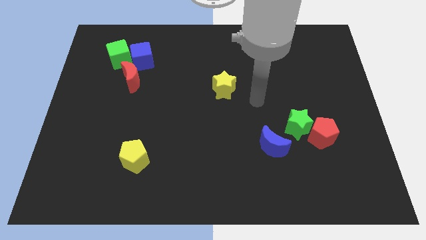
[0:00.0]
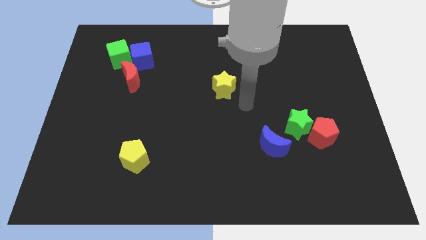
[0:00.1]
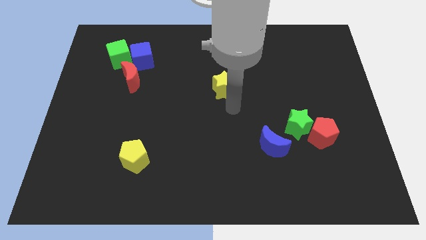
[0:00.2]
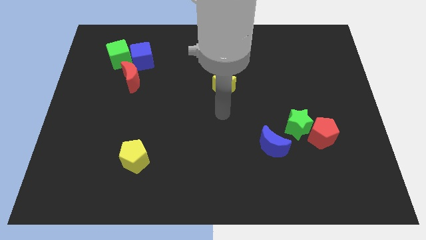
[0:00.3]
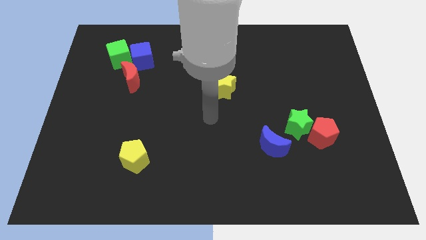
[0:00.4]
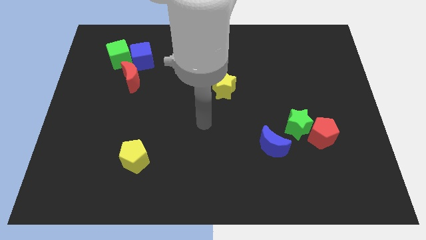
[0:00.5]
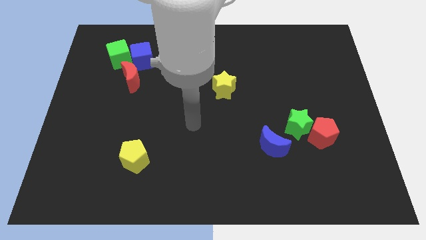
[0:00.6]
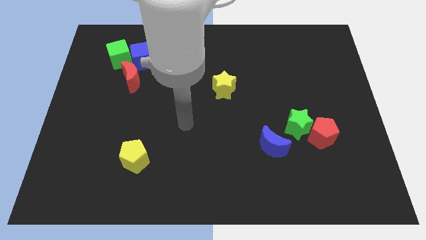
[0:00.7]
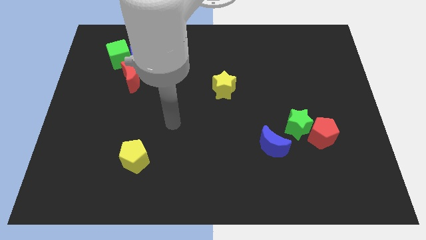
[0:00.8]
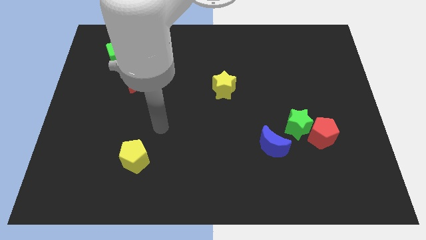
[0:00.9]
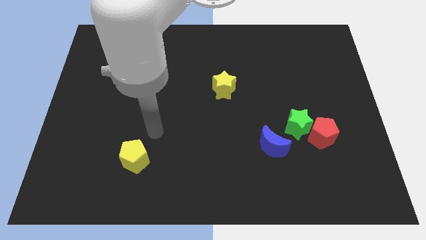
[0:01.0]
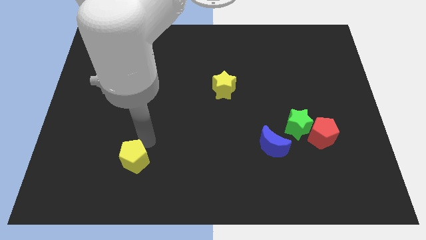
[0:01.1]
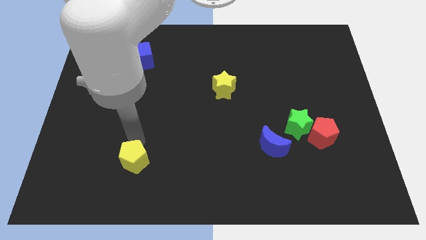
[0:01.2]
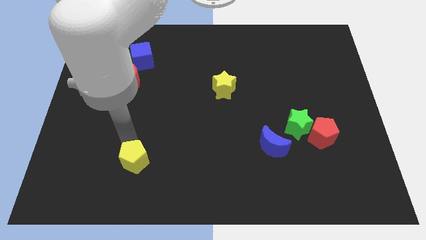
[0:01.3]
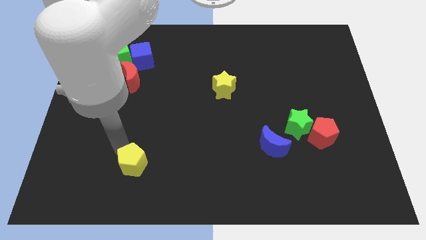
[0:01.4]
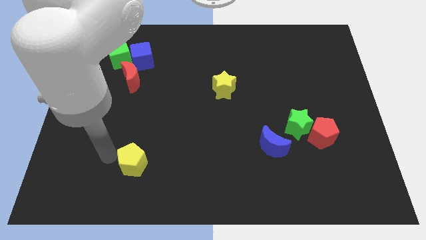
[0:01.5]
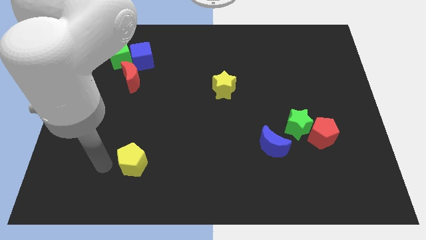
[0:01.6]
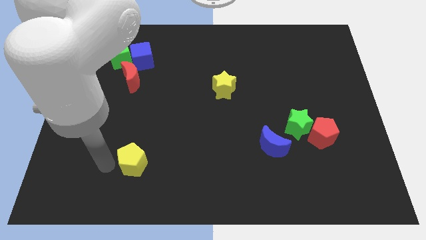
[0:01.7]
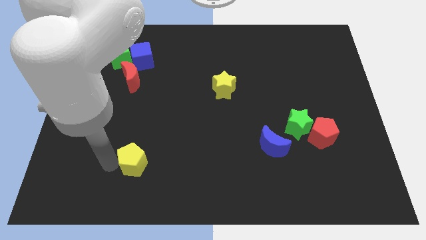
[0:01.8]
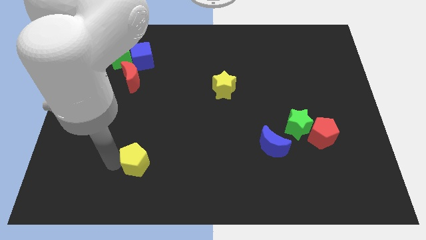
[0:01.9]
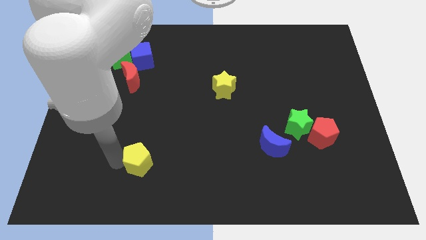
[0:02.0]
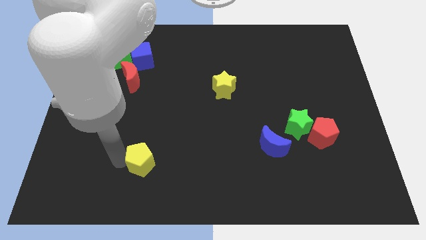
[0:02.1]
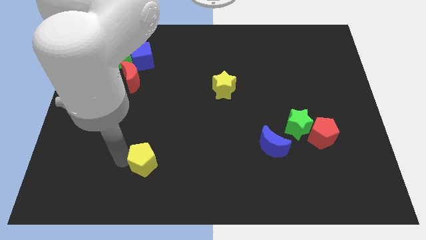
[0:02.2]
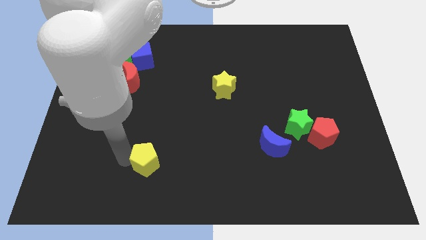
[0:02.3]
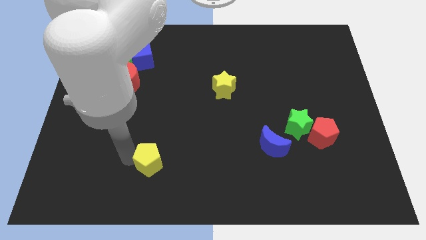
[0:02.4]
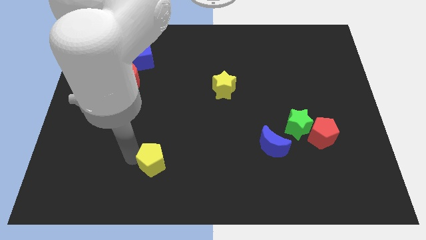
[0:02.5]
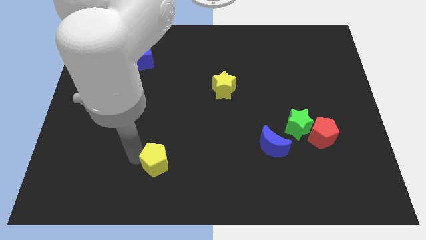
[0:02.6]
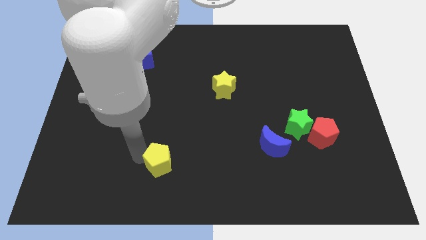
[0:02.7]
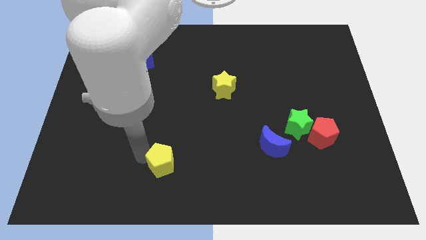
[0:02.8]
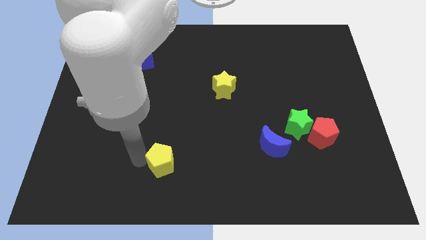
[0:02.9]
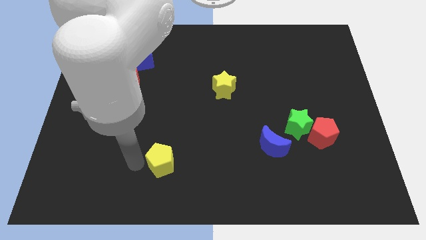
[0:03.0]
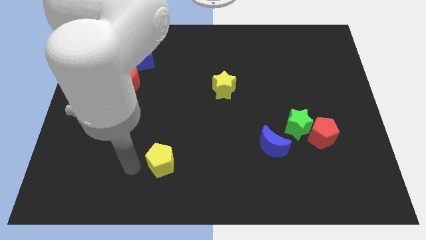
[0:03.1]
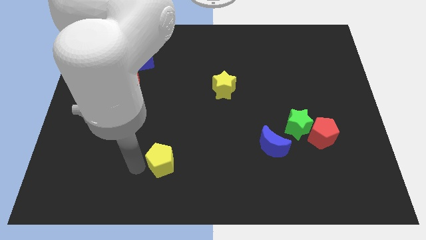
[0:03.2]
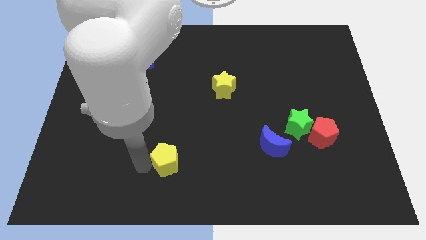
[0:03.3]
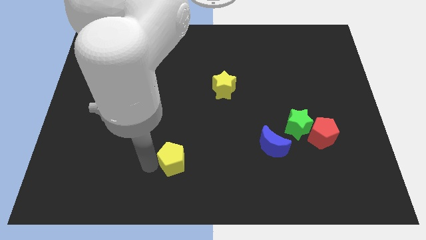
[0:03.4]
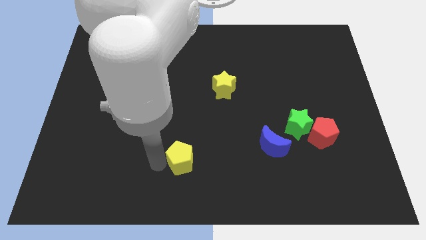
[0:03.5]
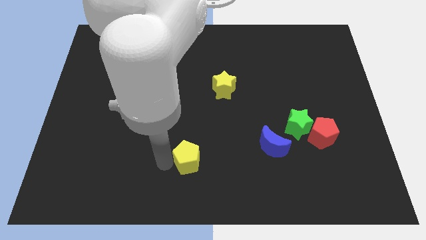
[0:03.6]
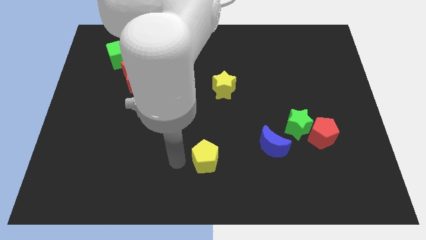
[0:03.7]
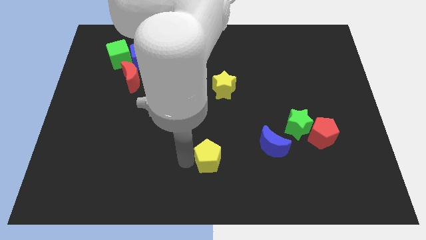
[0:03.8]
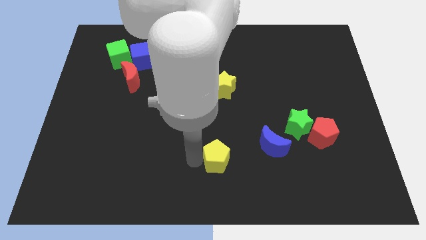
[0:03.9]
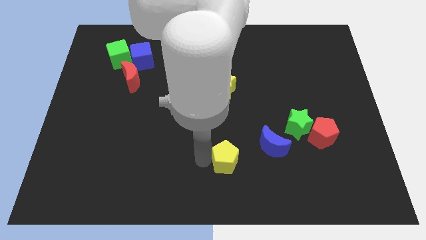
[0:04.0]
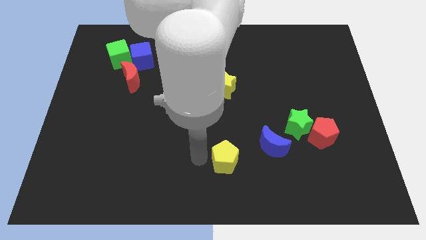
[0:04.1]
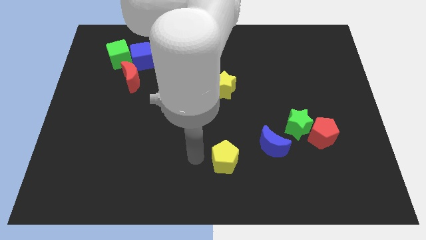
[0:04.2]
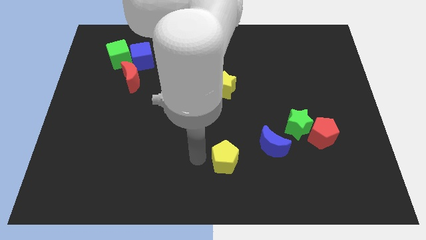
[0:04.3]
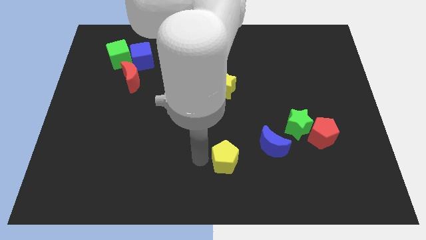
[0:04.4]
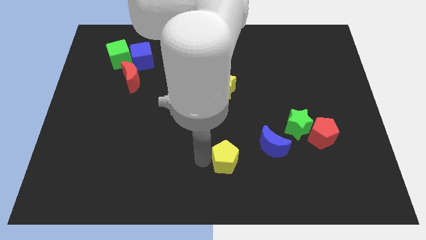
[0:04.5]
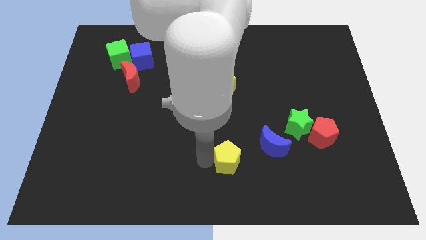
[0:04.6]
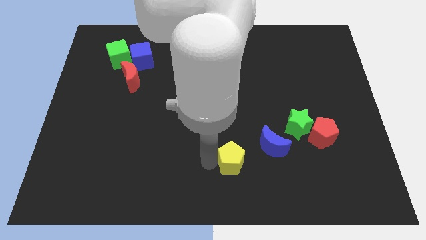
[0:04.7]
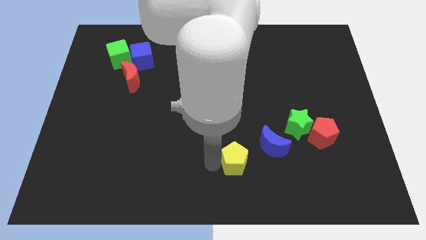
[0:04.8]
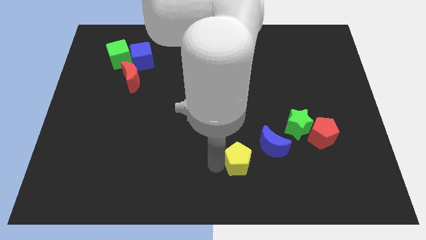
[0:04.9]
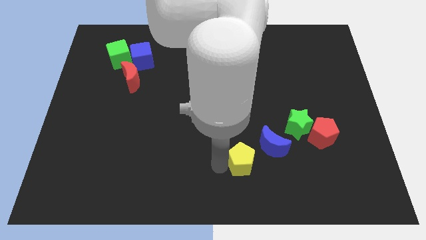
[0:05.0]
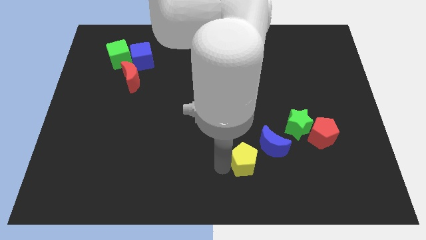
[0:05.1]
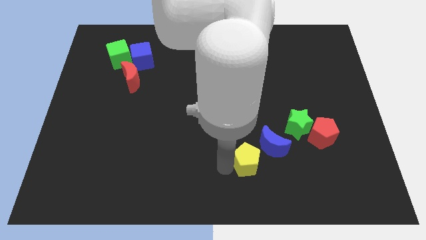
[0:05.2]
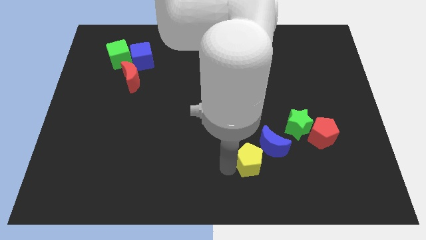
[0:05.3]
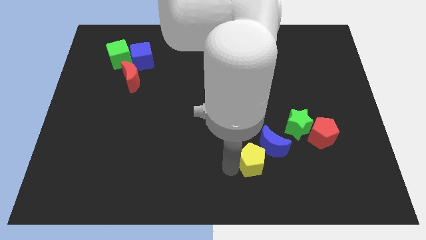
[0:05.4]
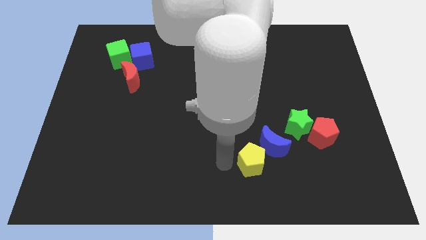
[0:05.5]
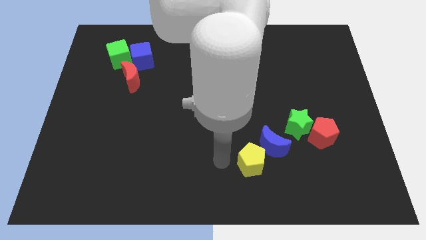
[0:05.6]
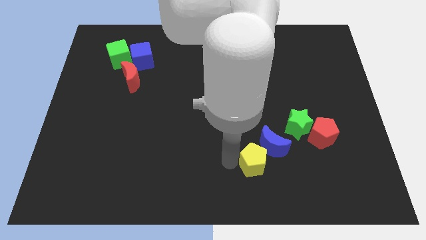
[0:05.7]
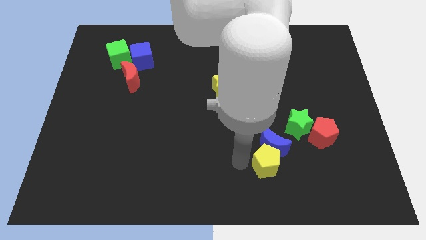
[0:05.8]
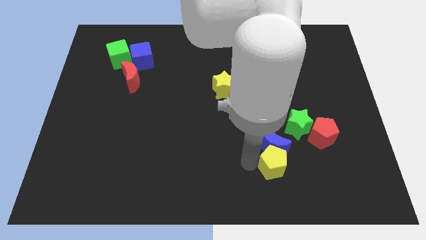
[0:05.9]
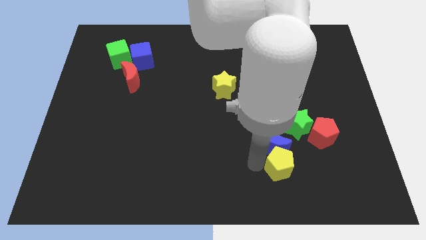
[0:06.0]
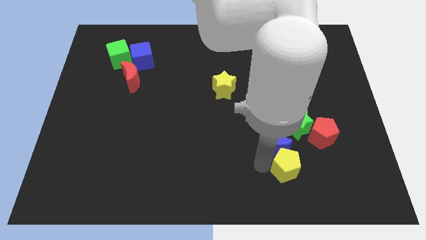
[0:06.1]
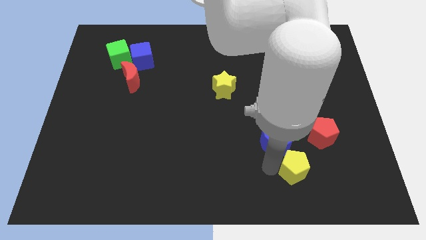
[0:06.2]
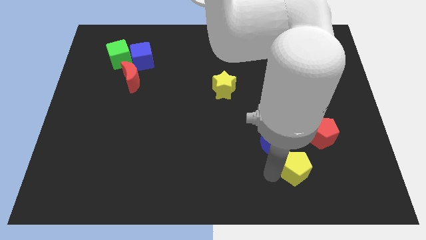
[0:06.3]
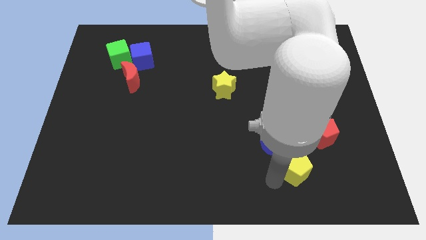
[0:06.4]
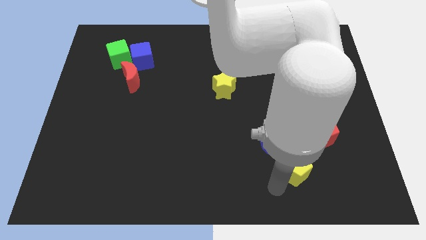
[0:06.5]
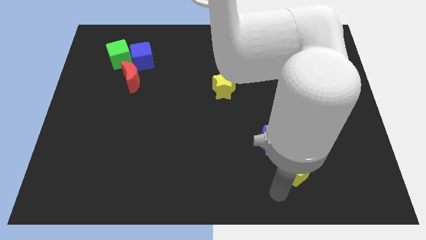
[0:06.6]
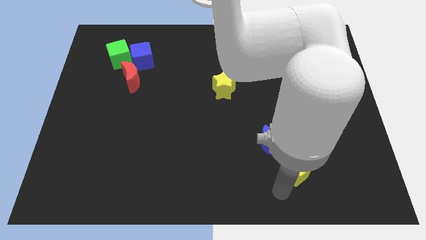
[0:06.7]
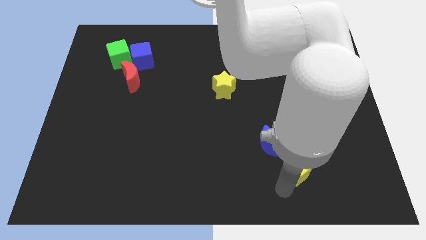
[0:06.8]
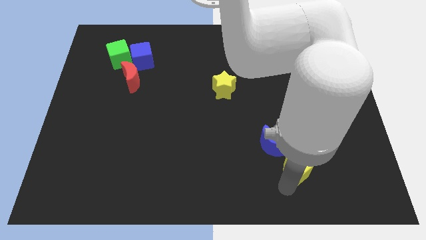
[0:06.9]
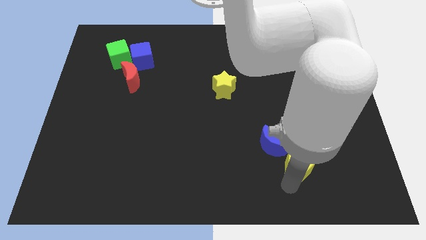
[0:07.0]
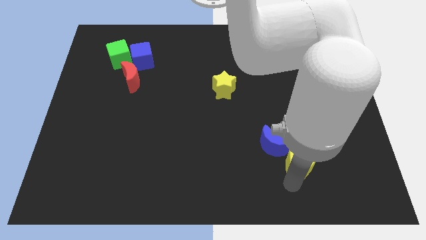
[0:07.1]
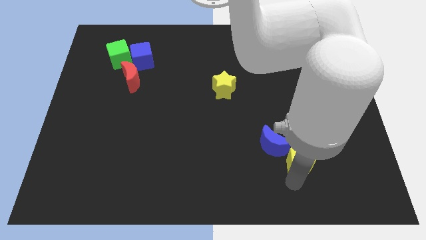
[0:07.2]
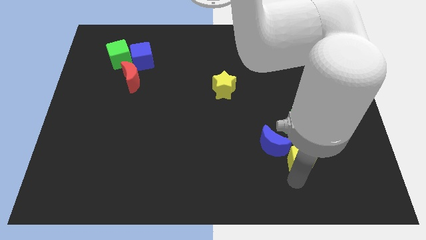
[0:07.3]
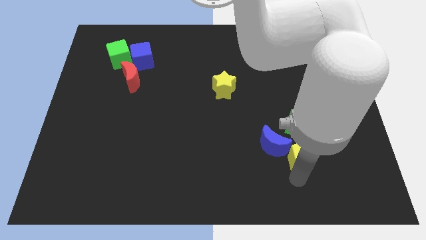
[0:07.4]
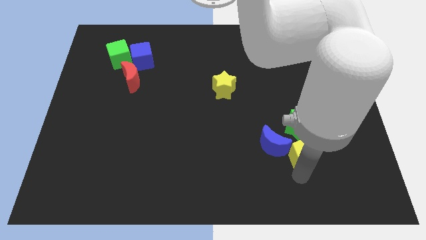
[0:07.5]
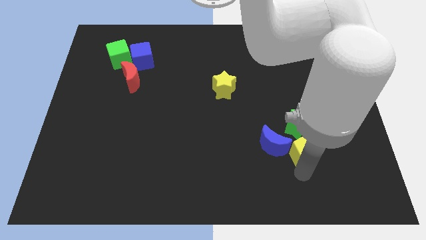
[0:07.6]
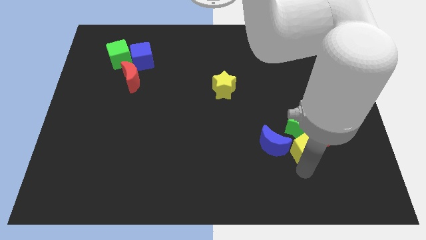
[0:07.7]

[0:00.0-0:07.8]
put the yellow pentagon towards the red pentagon
